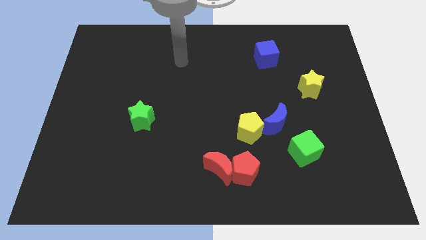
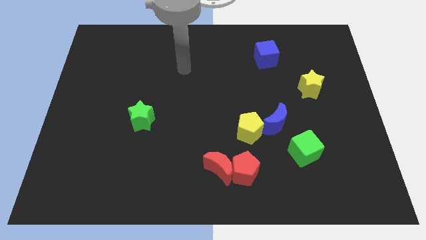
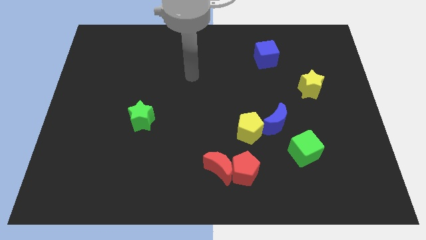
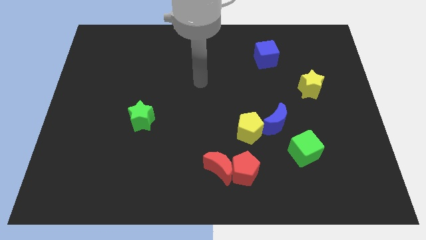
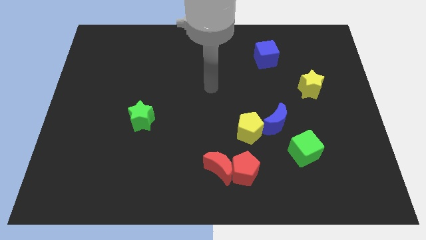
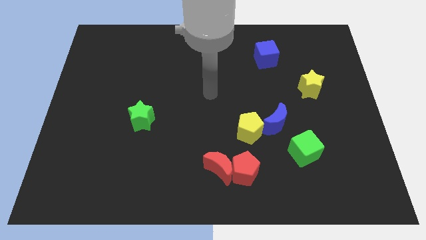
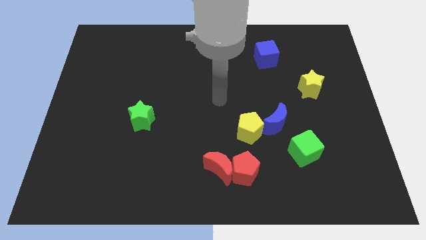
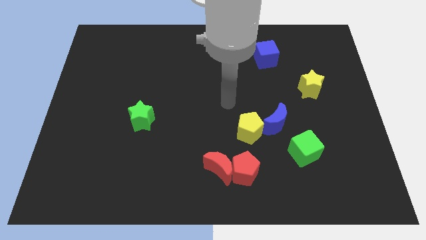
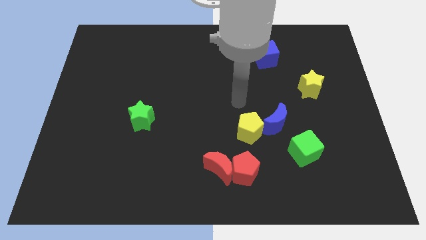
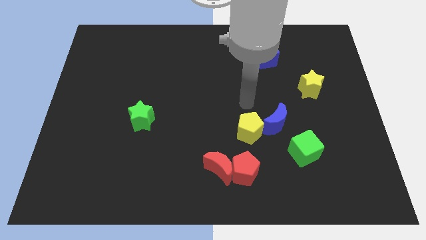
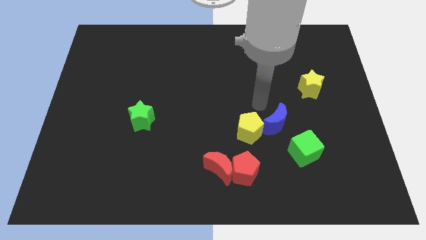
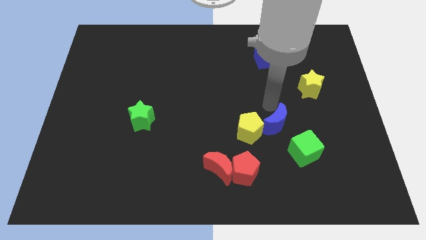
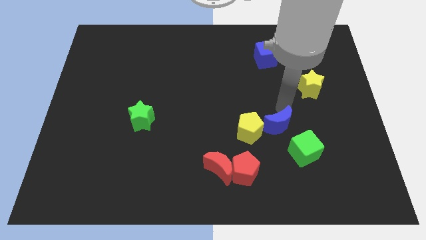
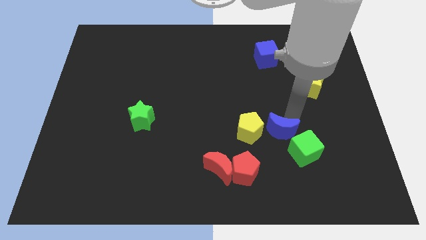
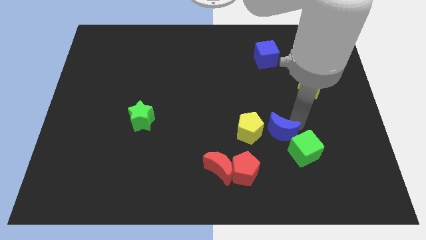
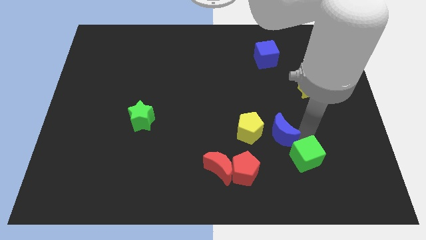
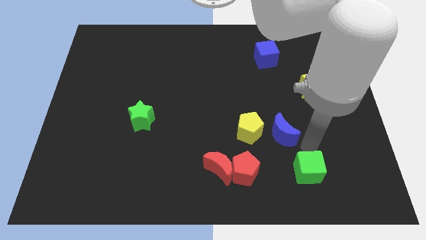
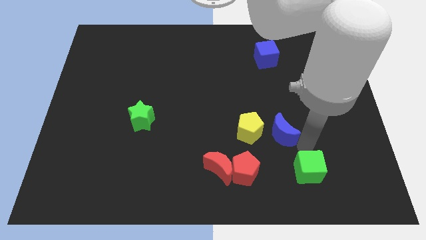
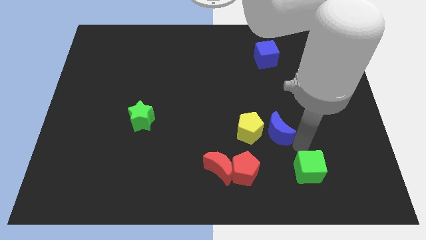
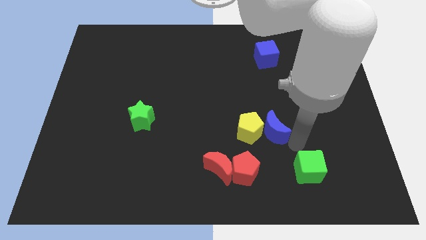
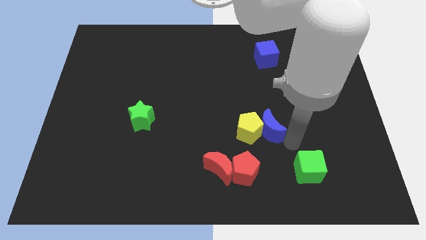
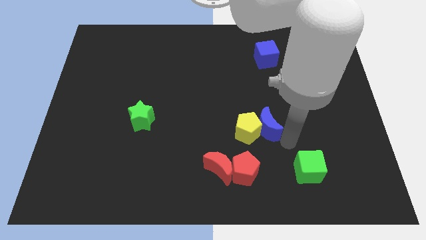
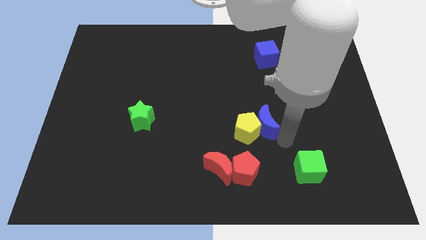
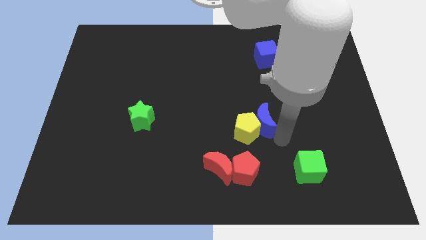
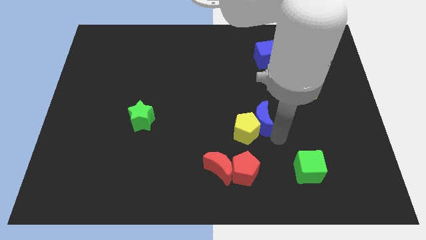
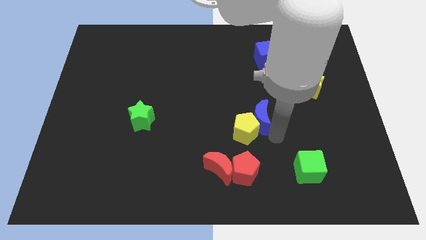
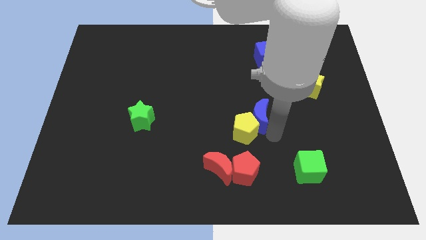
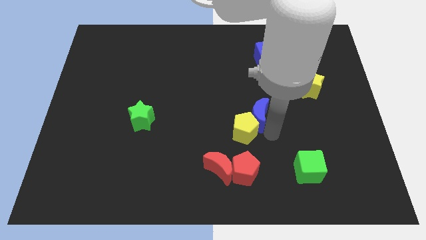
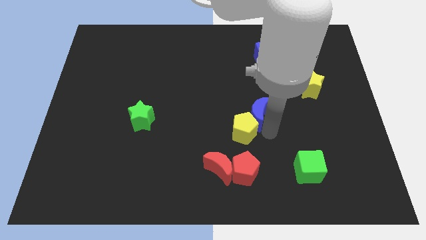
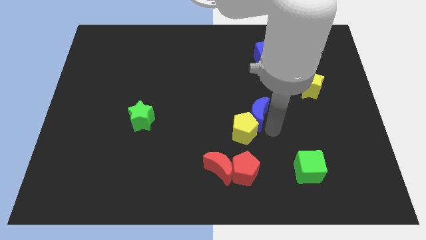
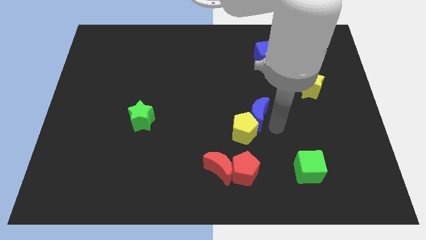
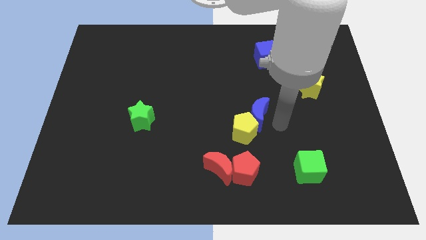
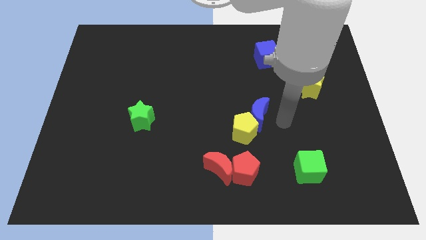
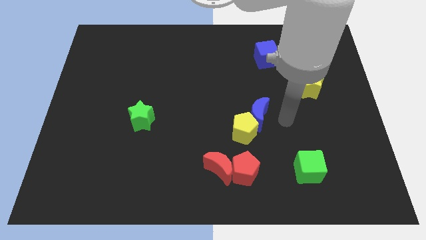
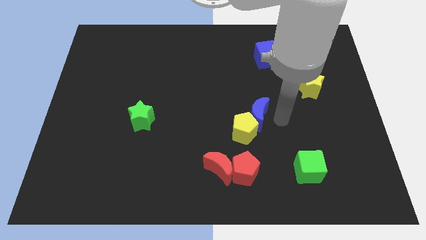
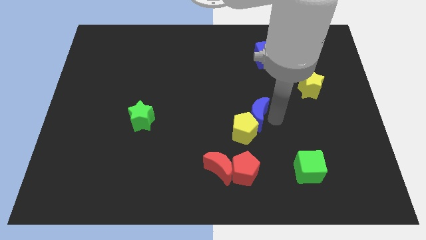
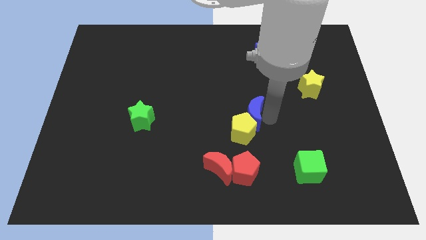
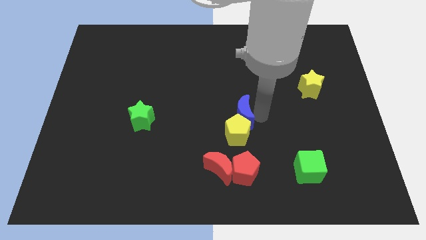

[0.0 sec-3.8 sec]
push the blue moon a little to the left

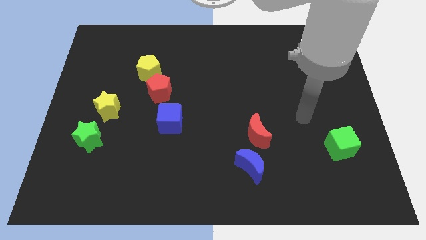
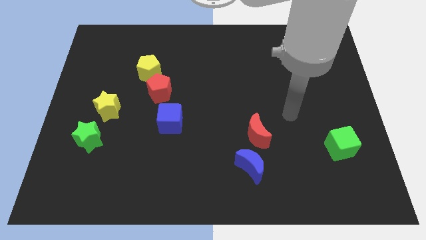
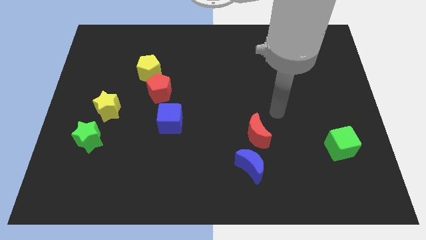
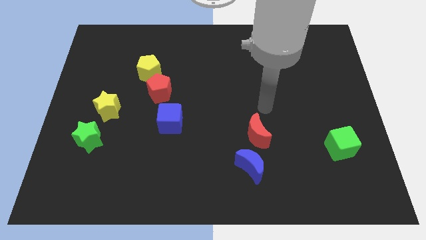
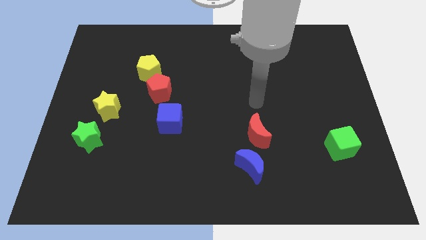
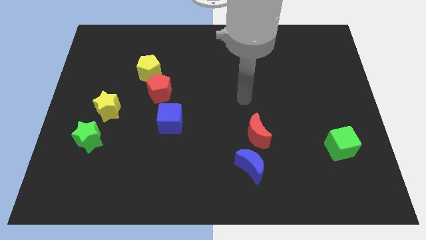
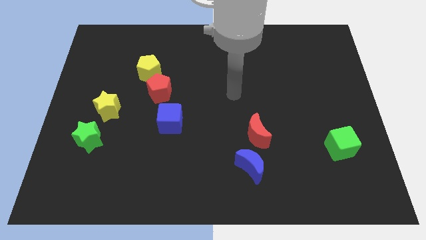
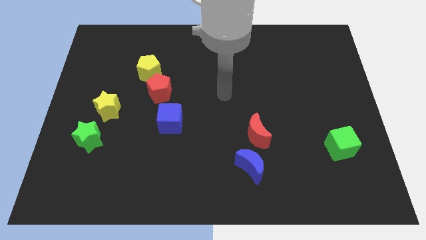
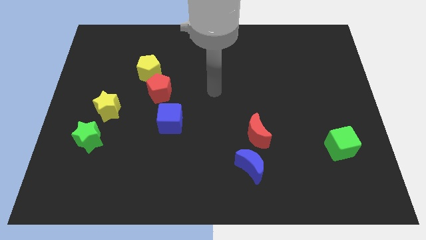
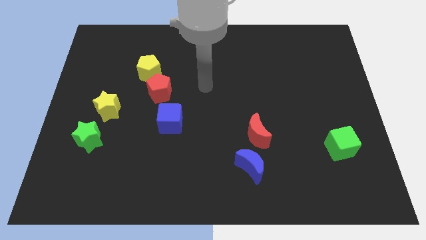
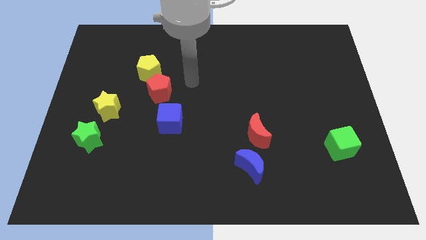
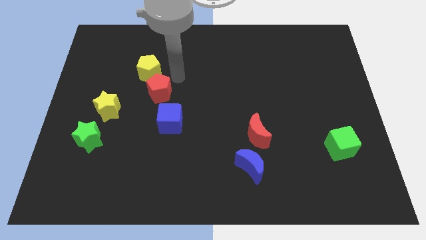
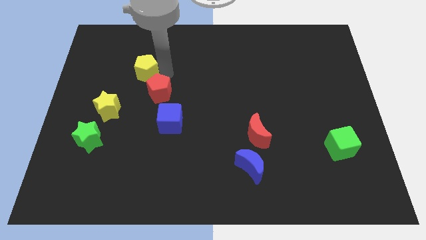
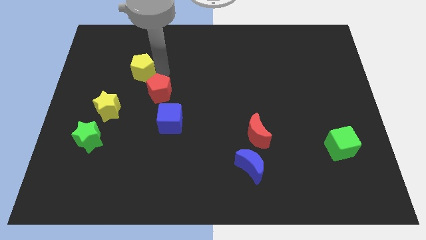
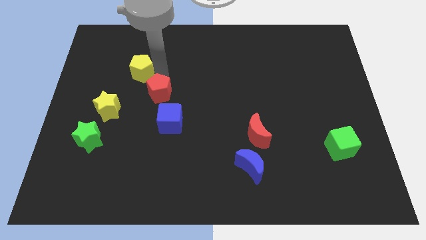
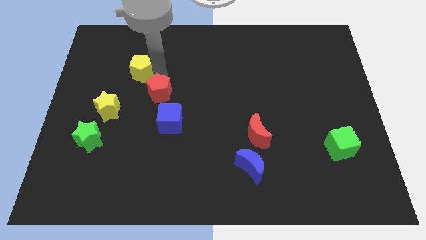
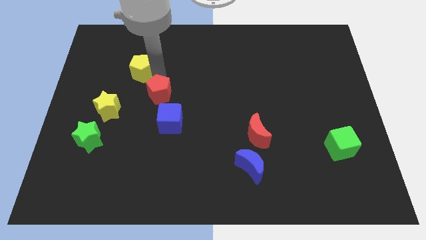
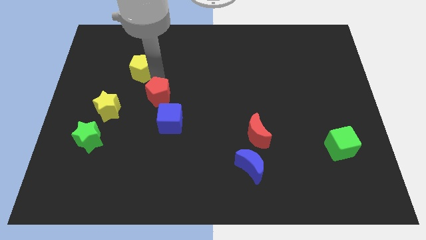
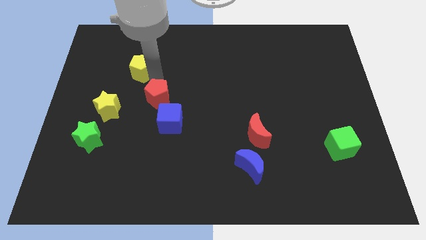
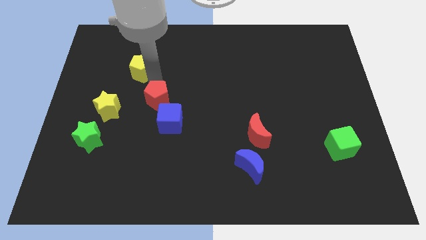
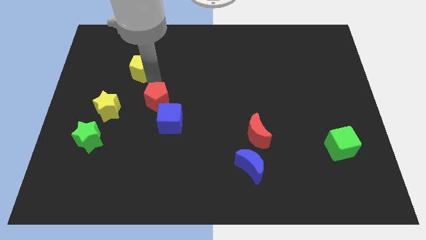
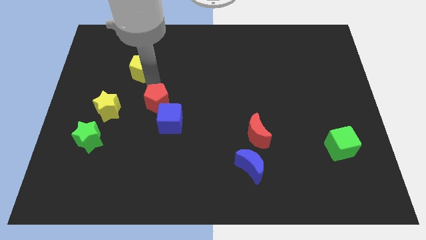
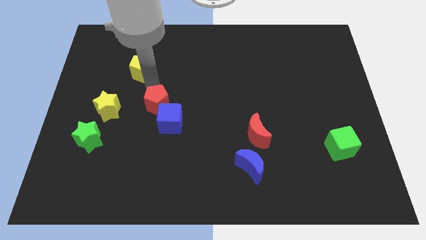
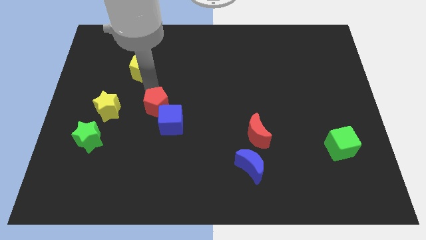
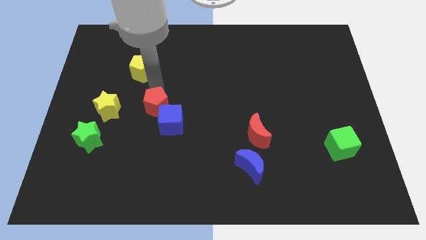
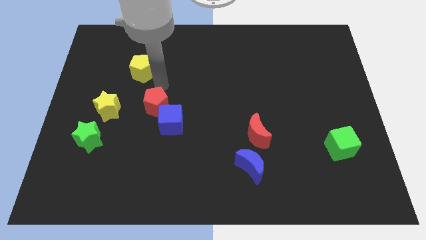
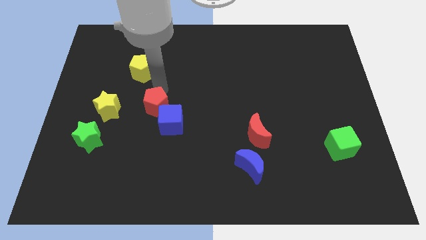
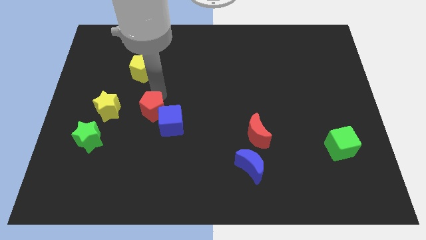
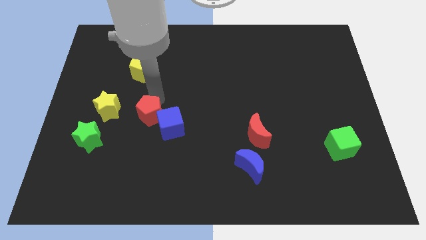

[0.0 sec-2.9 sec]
move the red pentagon a bit downwards

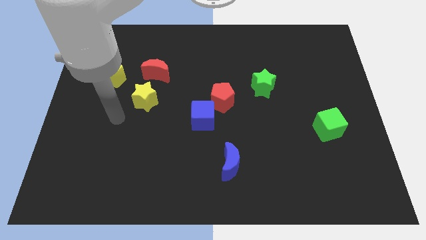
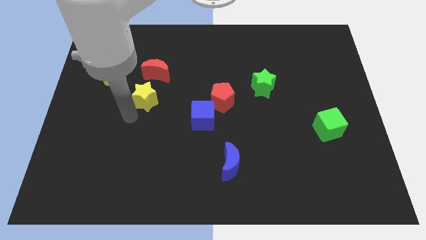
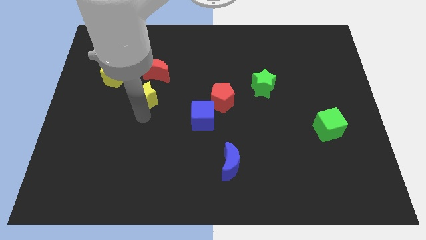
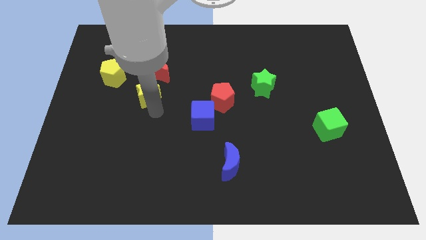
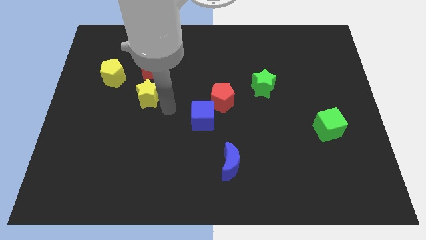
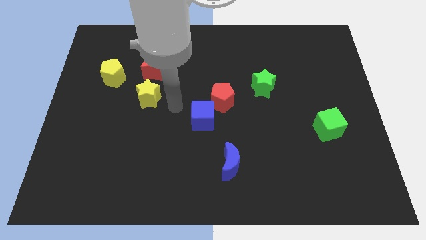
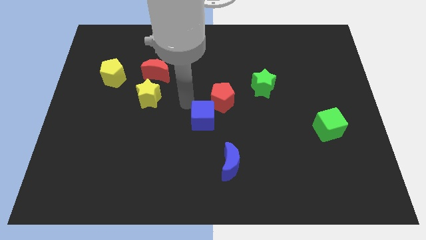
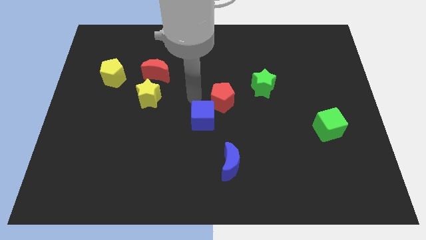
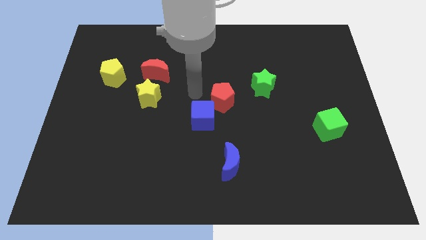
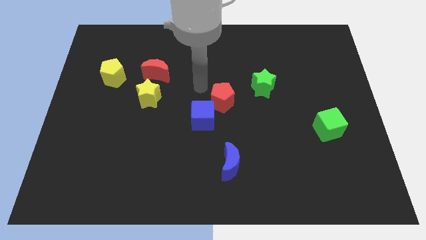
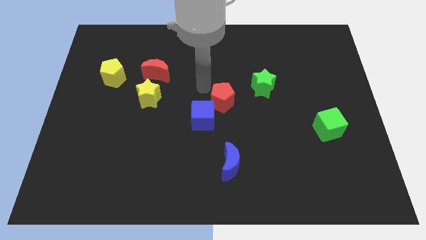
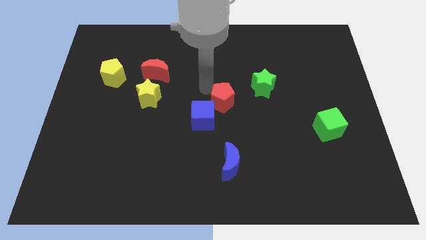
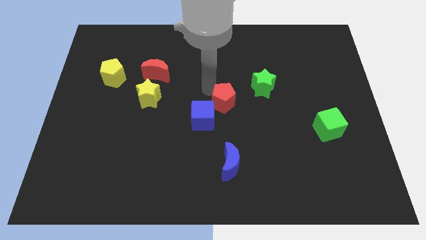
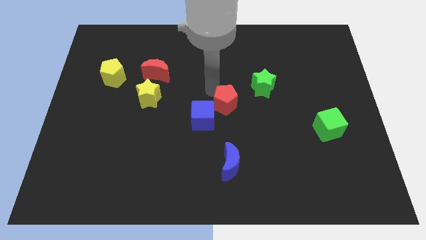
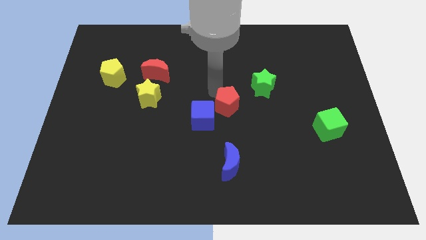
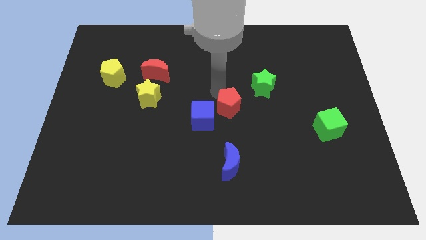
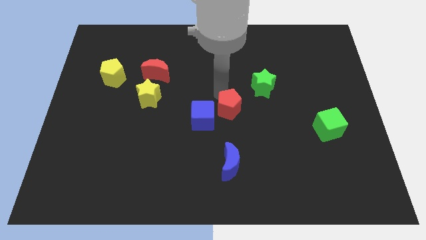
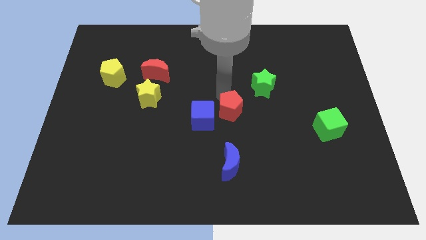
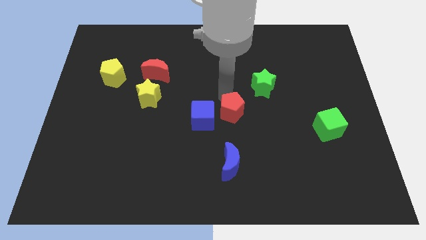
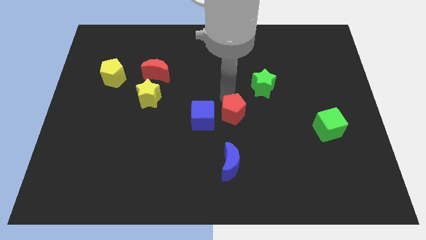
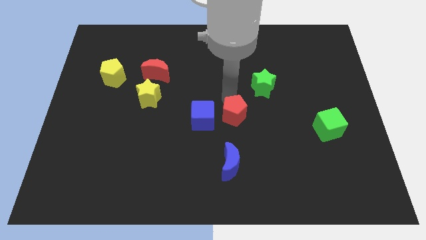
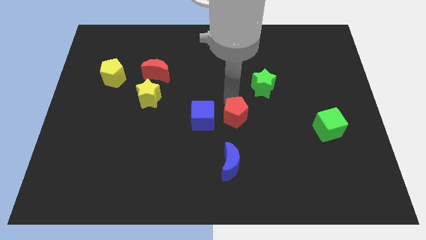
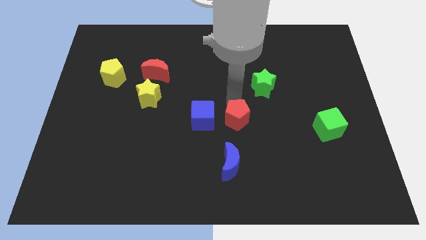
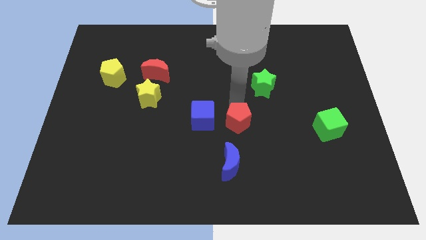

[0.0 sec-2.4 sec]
push the red pentagon slightly diagonally down and right
